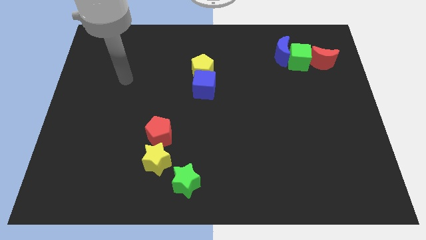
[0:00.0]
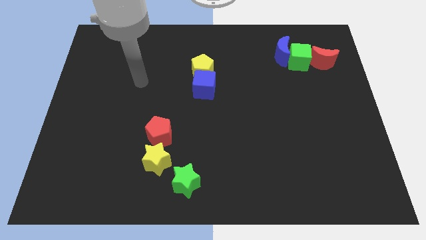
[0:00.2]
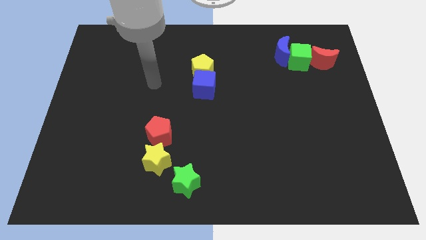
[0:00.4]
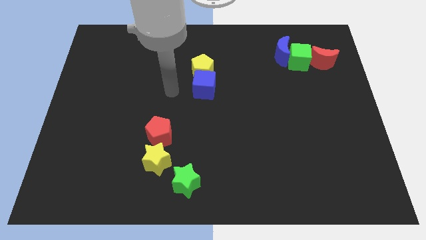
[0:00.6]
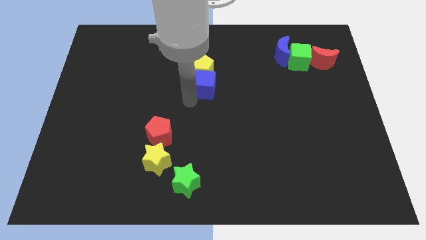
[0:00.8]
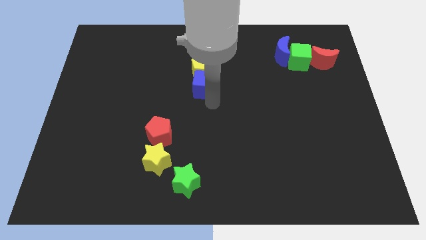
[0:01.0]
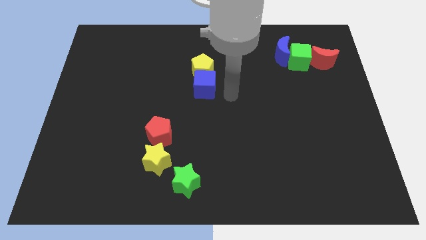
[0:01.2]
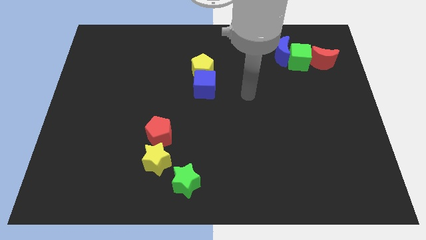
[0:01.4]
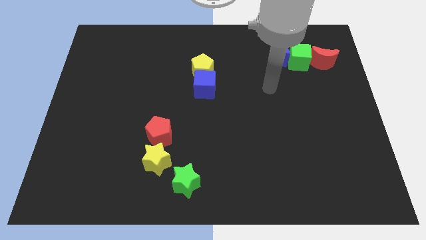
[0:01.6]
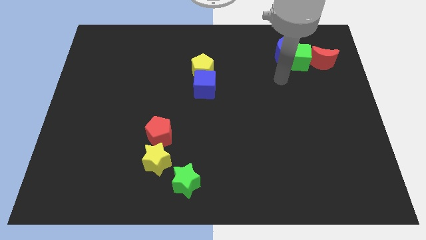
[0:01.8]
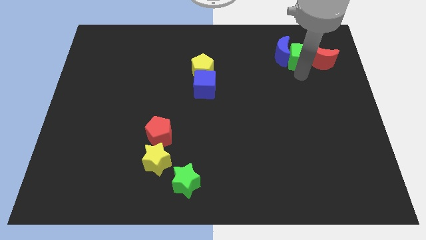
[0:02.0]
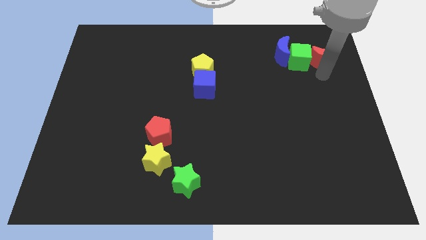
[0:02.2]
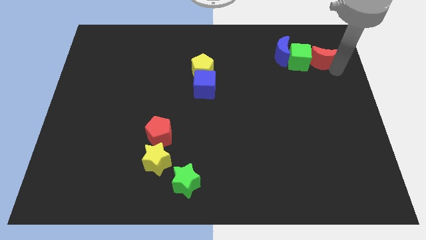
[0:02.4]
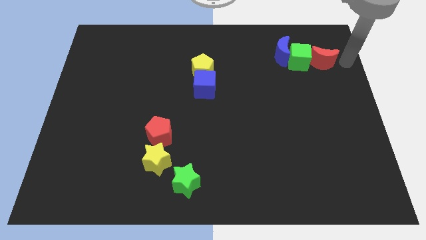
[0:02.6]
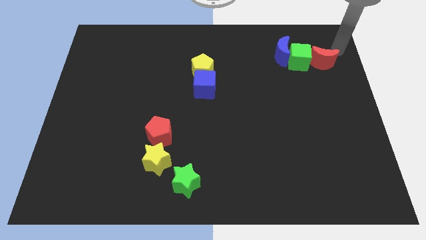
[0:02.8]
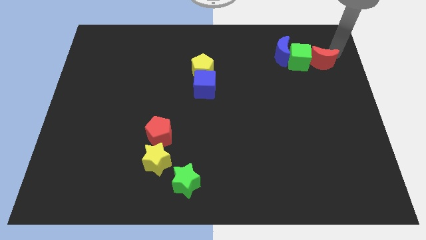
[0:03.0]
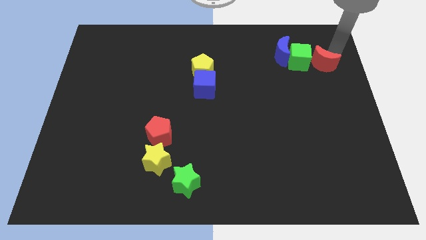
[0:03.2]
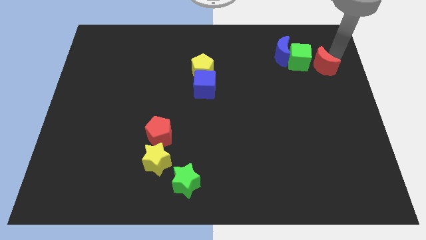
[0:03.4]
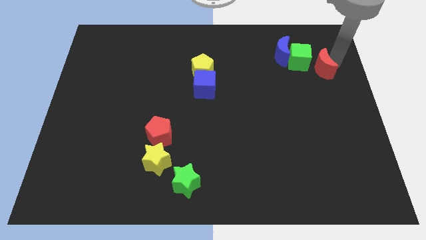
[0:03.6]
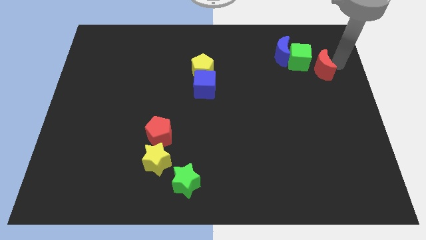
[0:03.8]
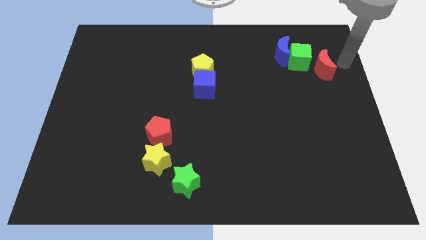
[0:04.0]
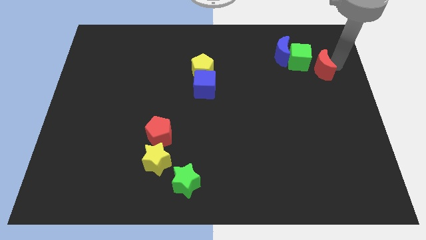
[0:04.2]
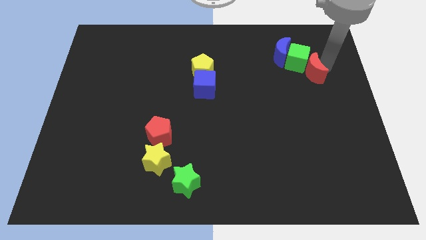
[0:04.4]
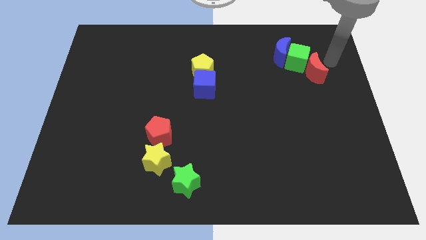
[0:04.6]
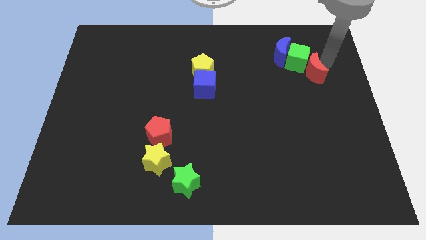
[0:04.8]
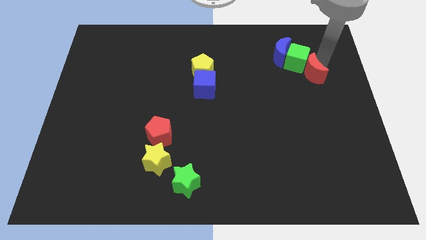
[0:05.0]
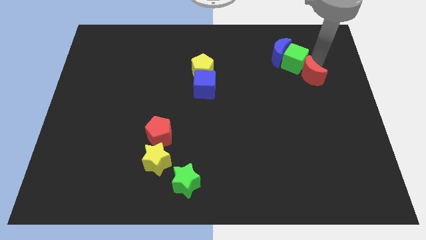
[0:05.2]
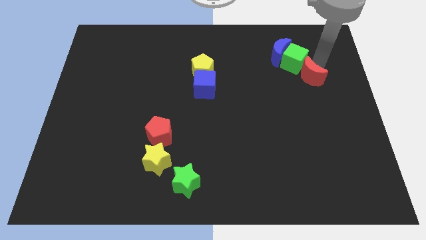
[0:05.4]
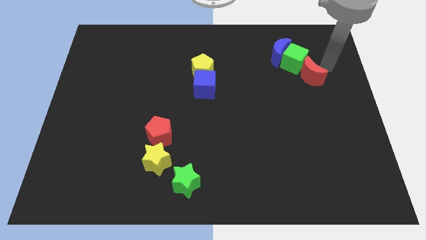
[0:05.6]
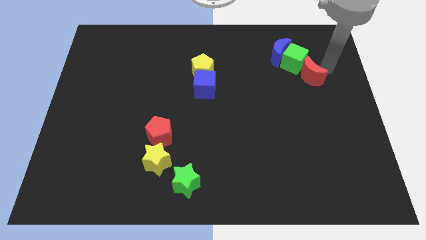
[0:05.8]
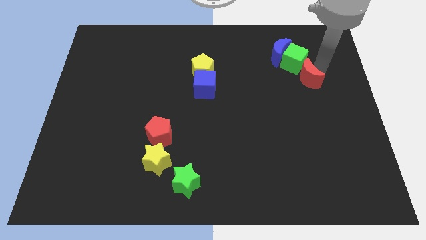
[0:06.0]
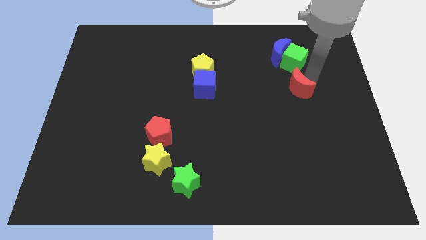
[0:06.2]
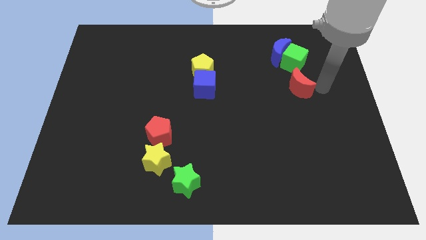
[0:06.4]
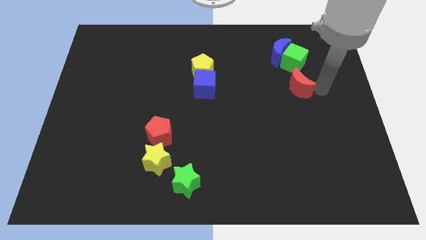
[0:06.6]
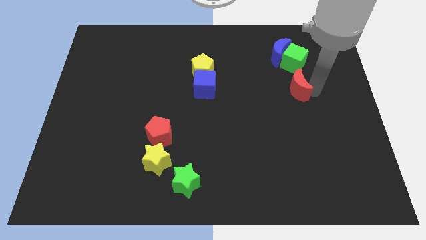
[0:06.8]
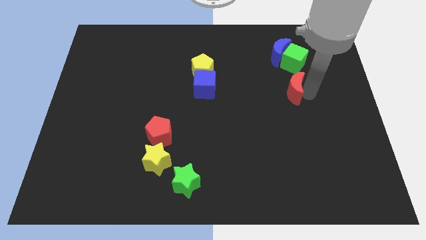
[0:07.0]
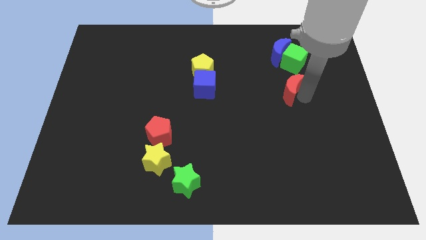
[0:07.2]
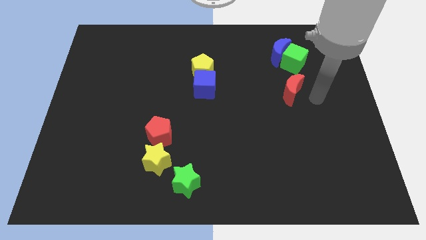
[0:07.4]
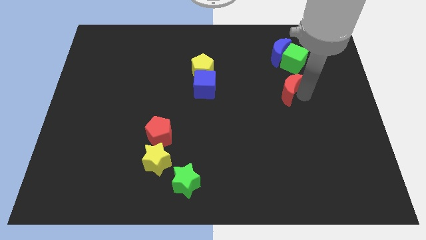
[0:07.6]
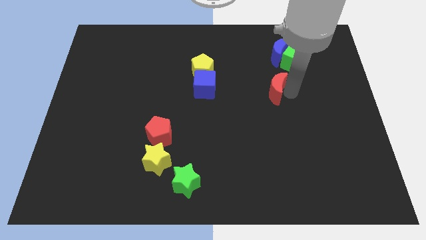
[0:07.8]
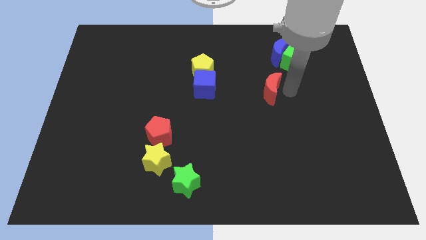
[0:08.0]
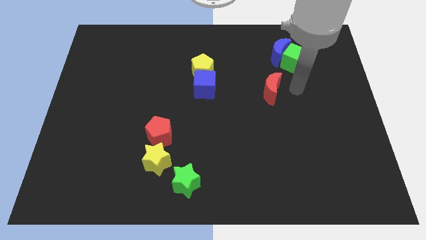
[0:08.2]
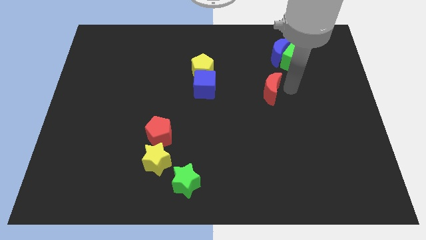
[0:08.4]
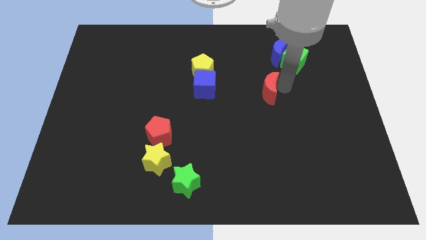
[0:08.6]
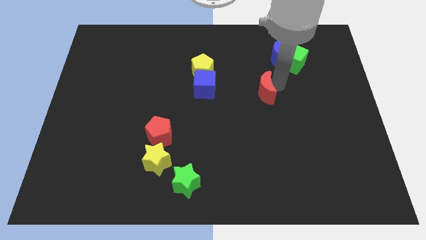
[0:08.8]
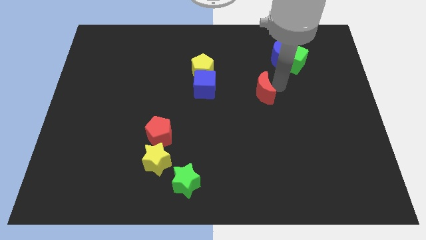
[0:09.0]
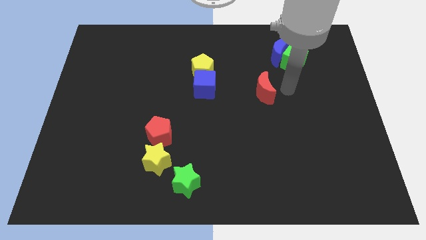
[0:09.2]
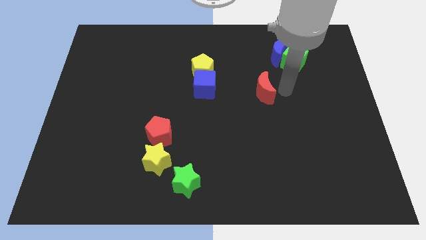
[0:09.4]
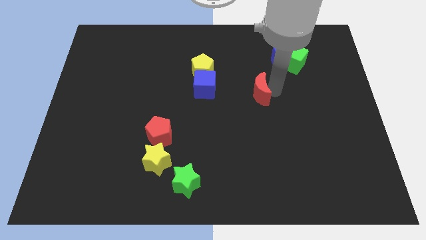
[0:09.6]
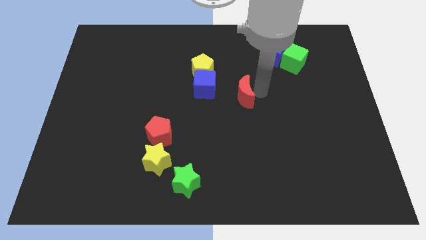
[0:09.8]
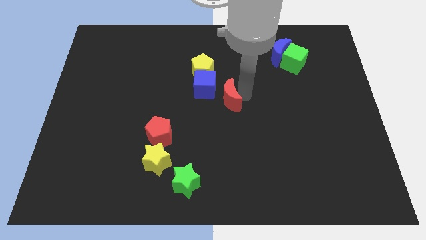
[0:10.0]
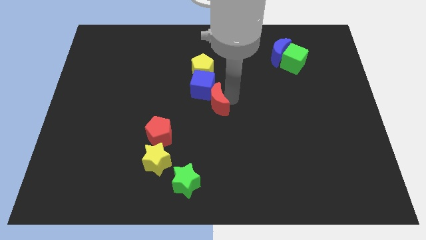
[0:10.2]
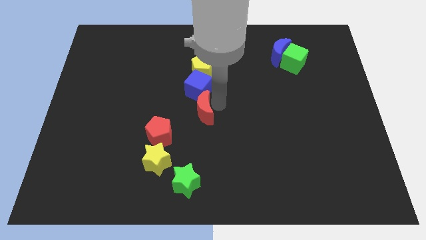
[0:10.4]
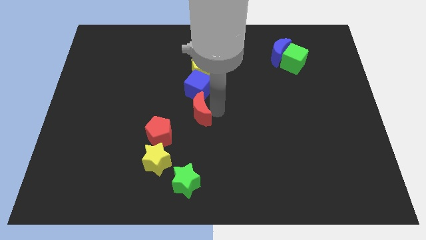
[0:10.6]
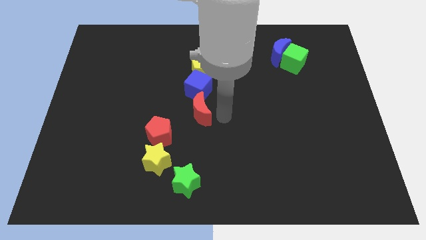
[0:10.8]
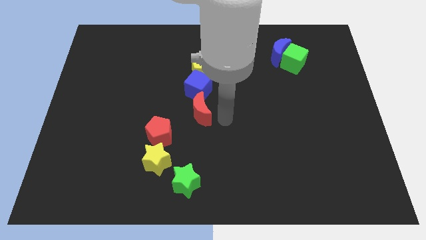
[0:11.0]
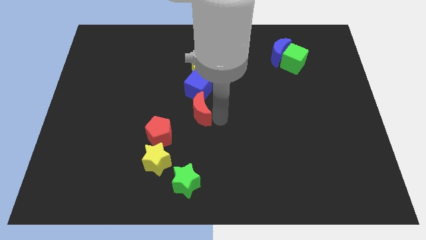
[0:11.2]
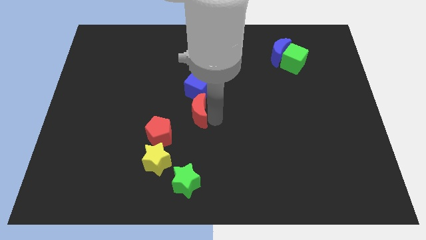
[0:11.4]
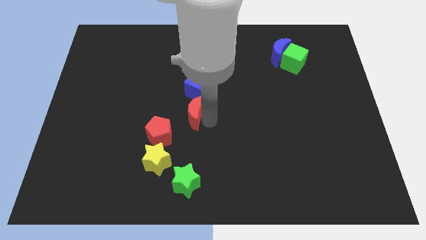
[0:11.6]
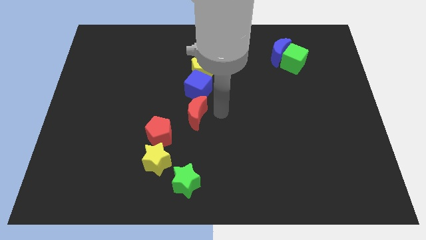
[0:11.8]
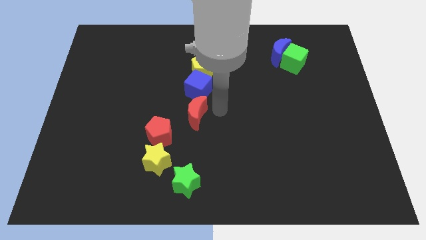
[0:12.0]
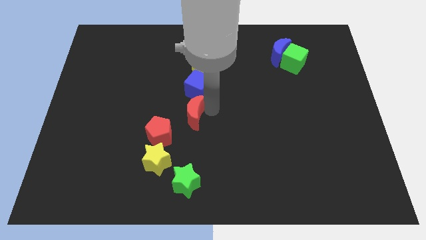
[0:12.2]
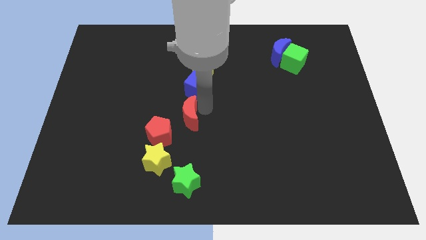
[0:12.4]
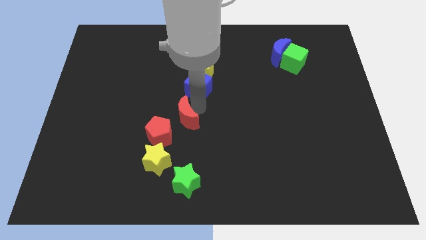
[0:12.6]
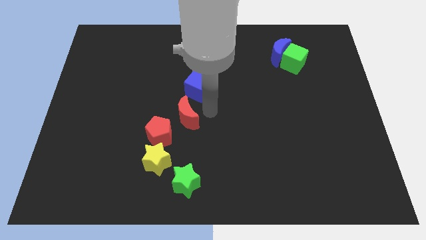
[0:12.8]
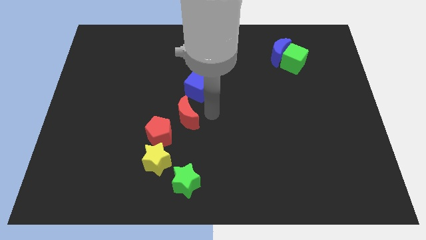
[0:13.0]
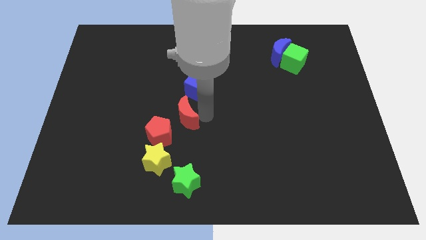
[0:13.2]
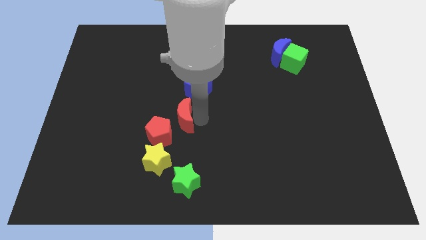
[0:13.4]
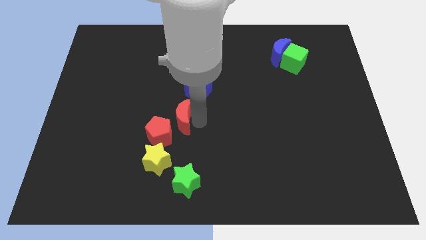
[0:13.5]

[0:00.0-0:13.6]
slide the red moon above the yellow star
